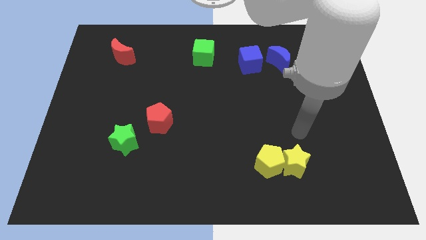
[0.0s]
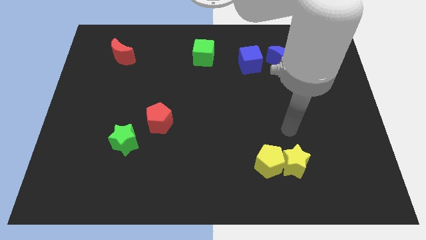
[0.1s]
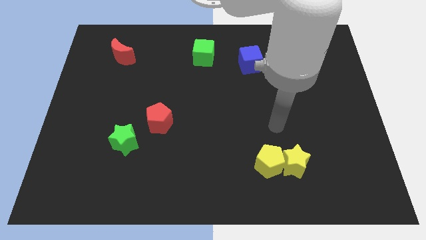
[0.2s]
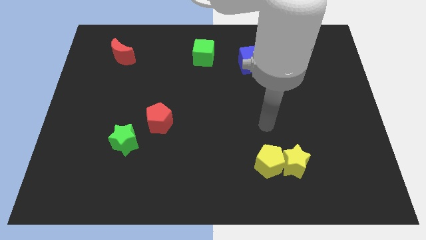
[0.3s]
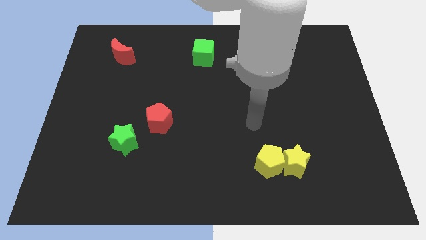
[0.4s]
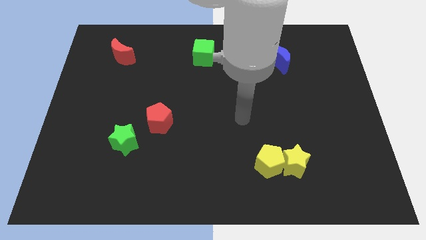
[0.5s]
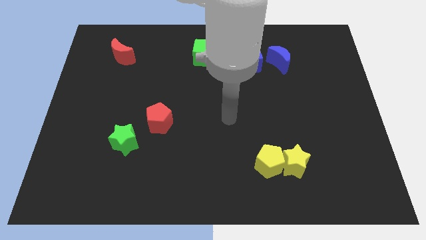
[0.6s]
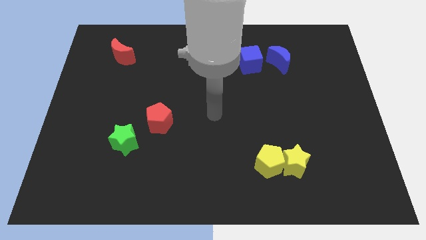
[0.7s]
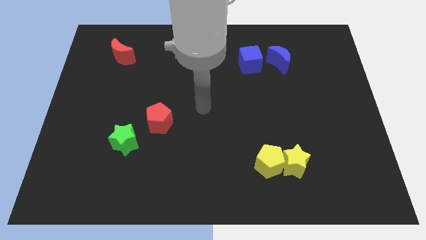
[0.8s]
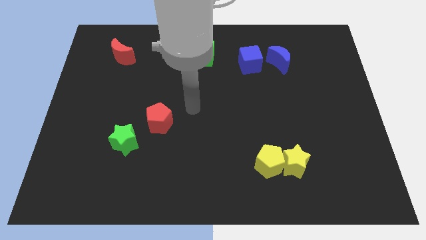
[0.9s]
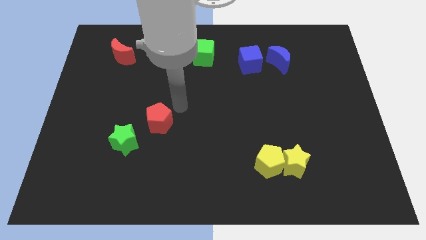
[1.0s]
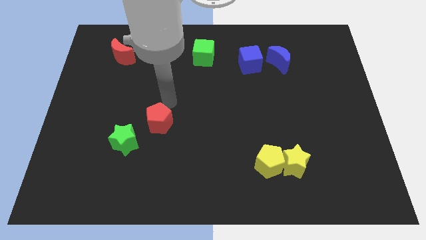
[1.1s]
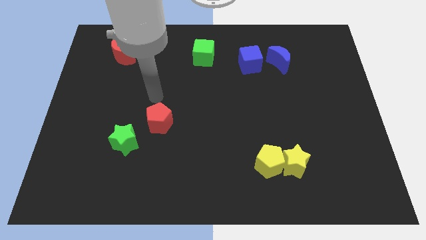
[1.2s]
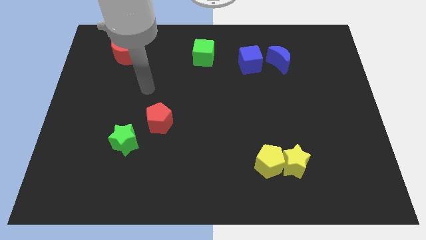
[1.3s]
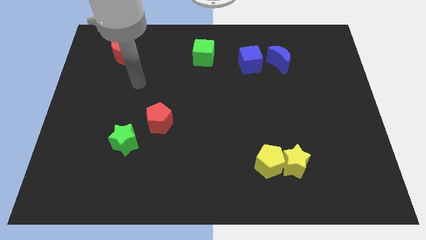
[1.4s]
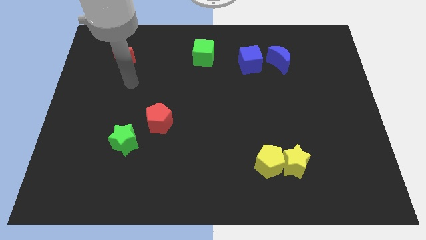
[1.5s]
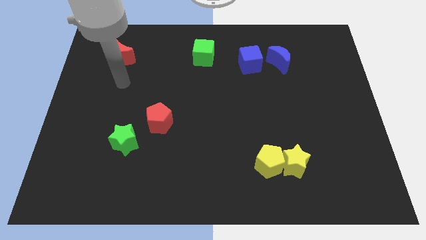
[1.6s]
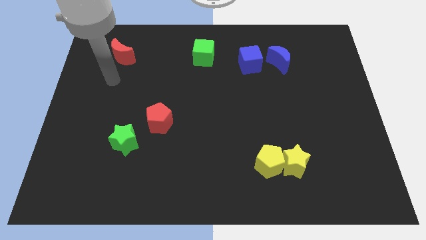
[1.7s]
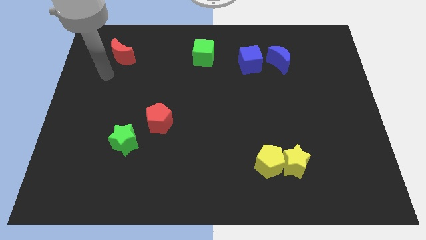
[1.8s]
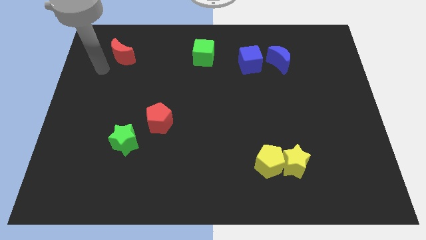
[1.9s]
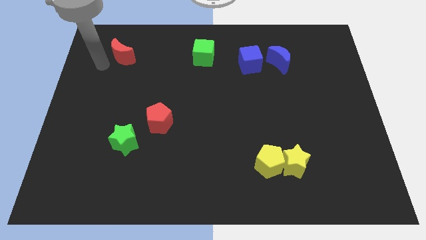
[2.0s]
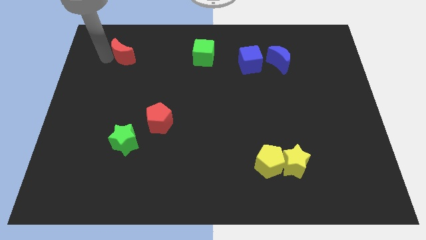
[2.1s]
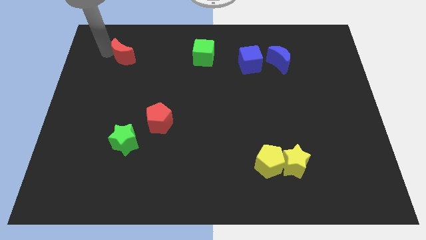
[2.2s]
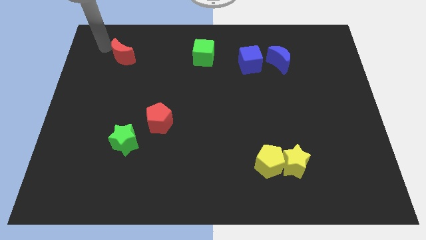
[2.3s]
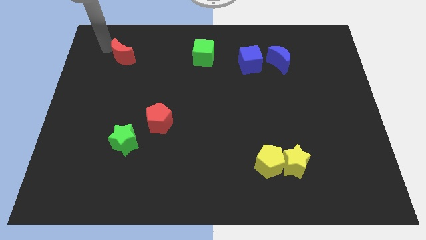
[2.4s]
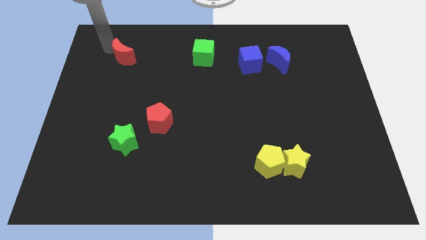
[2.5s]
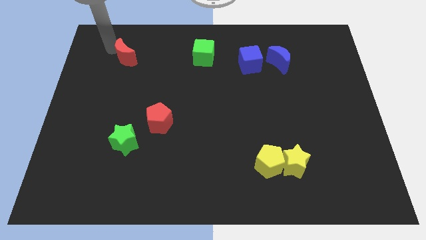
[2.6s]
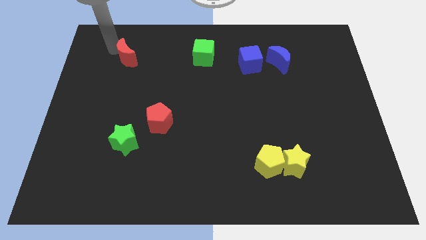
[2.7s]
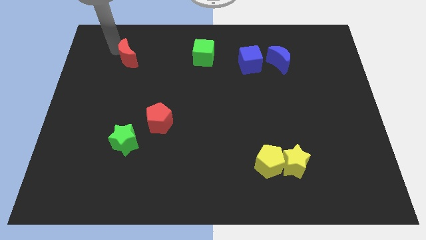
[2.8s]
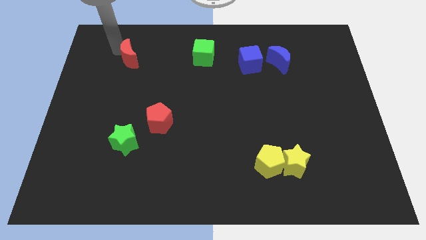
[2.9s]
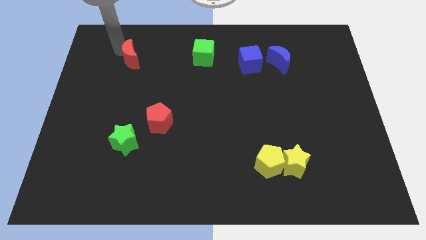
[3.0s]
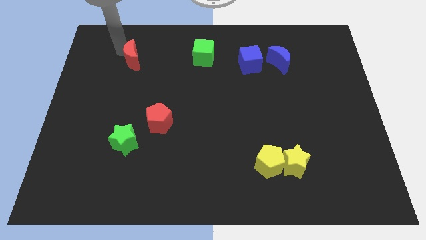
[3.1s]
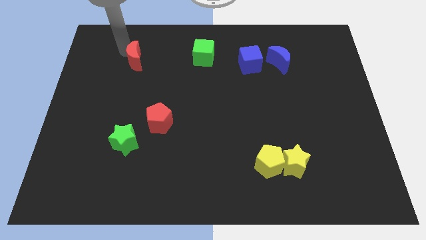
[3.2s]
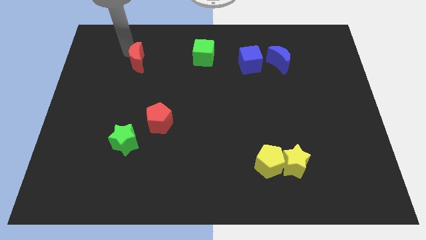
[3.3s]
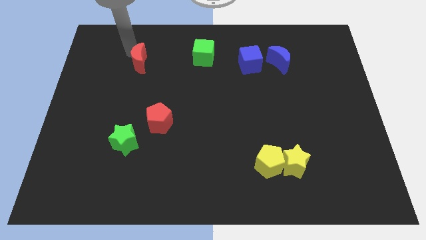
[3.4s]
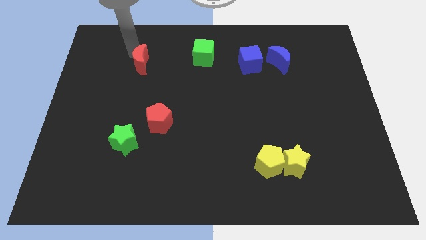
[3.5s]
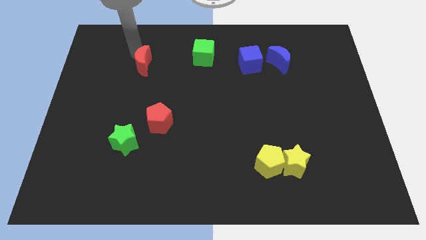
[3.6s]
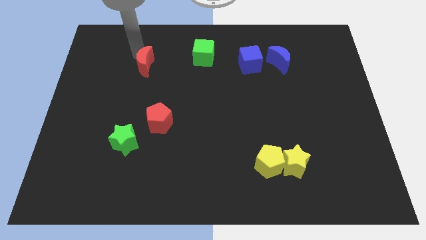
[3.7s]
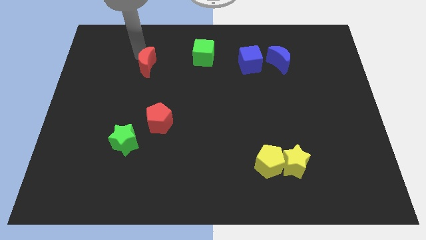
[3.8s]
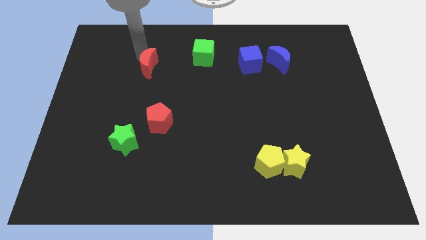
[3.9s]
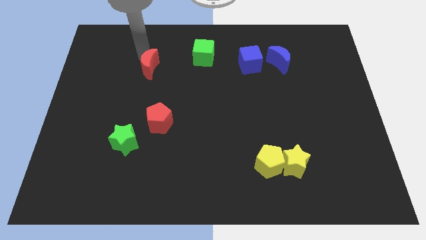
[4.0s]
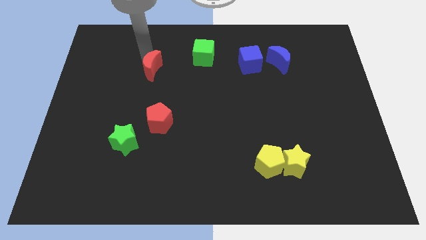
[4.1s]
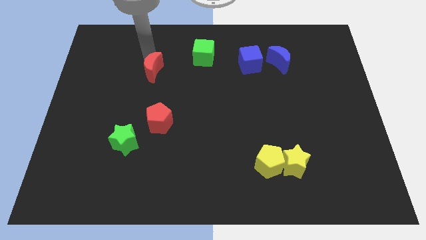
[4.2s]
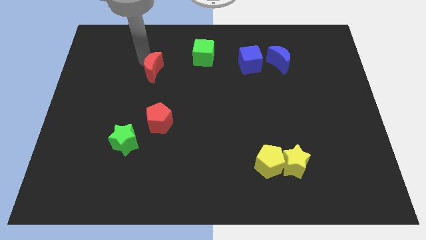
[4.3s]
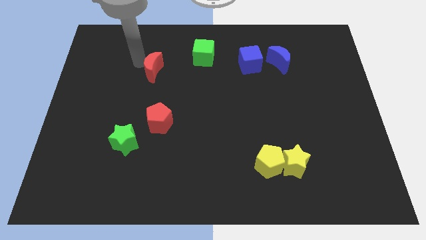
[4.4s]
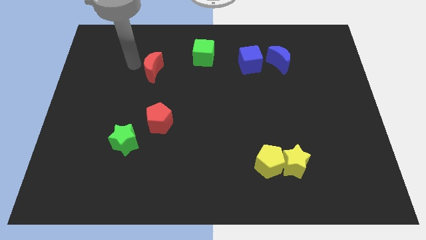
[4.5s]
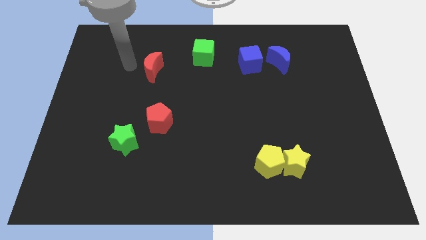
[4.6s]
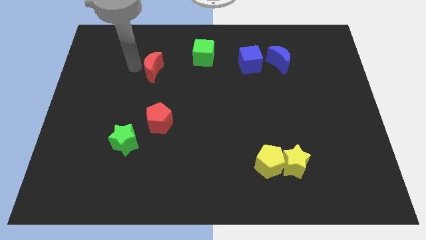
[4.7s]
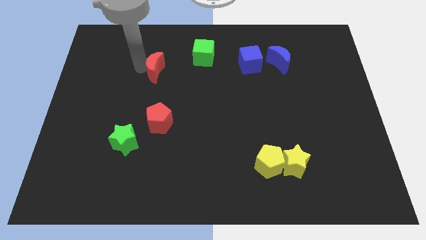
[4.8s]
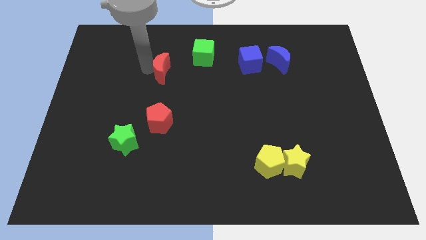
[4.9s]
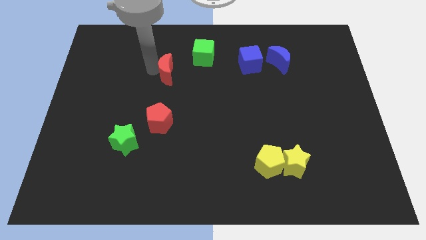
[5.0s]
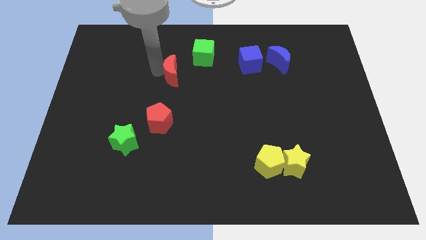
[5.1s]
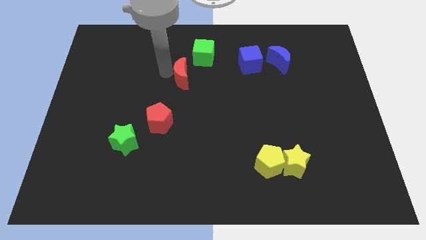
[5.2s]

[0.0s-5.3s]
push the red moon to the center of the board

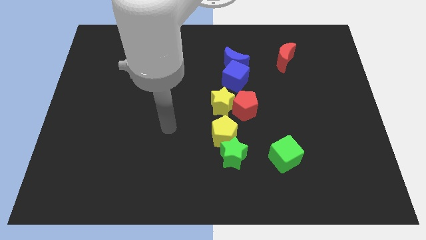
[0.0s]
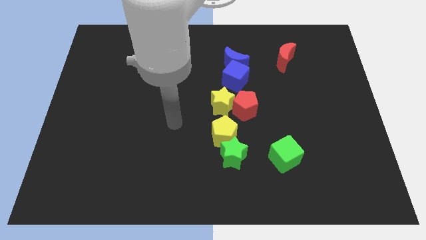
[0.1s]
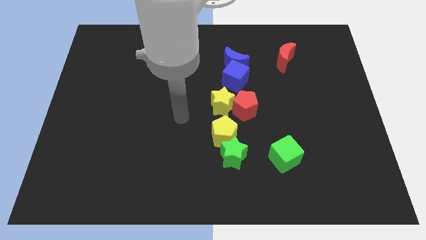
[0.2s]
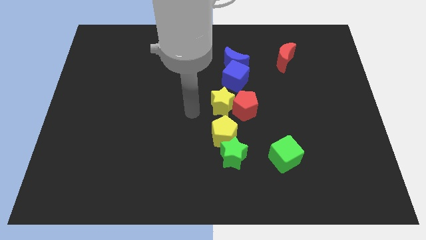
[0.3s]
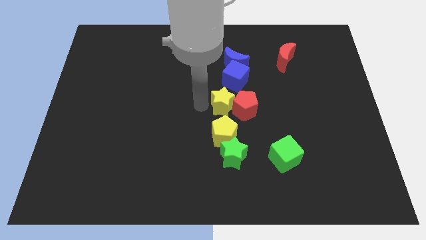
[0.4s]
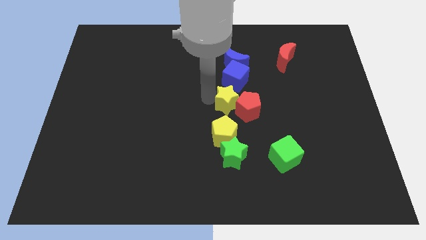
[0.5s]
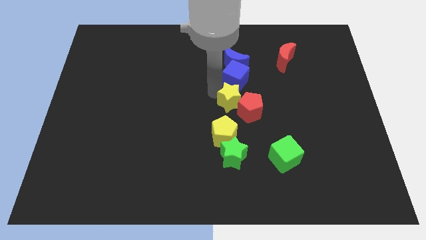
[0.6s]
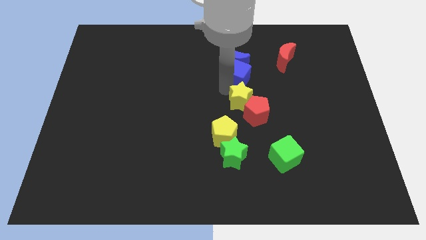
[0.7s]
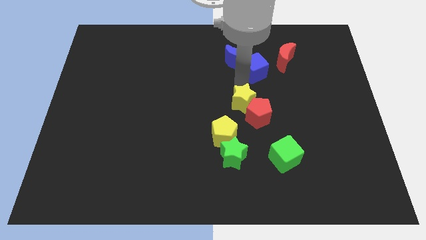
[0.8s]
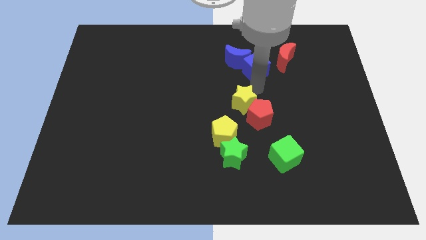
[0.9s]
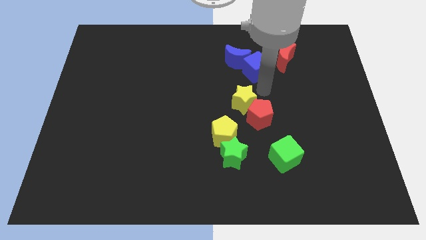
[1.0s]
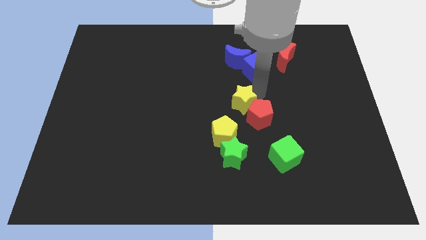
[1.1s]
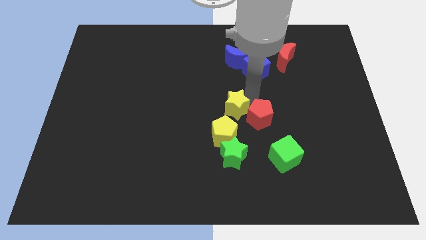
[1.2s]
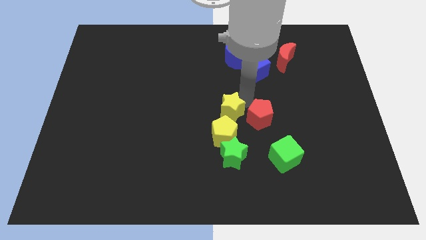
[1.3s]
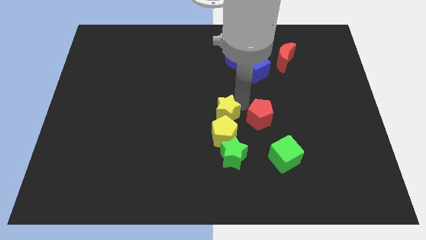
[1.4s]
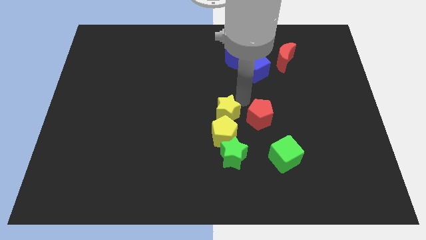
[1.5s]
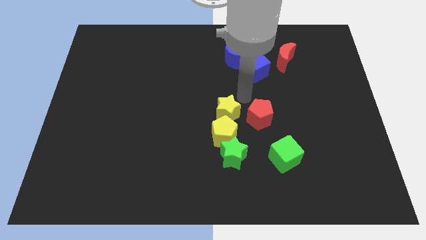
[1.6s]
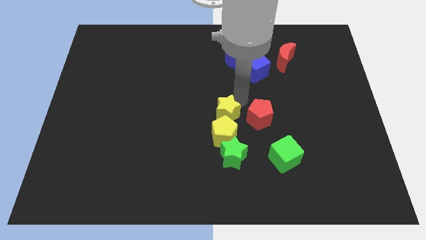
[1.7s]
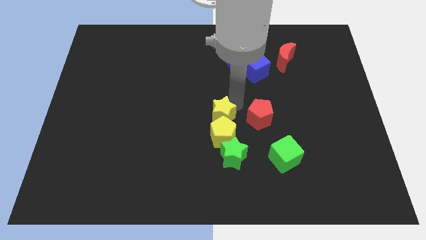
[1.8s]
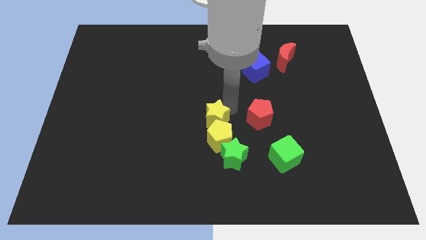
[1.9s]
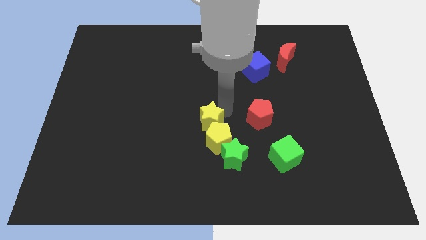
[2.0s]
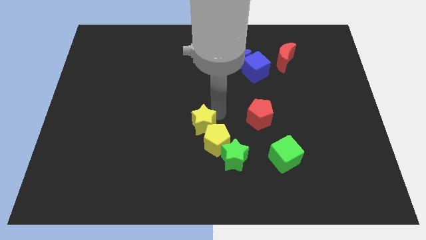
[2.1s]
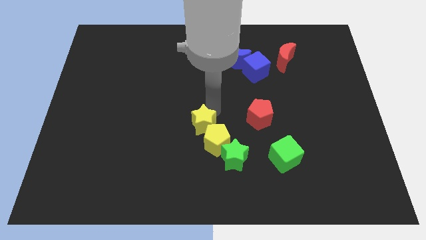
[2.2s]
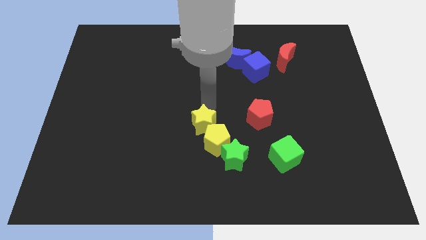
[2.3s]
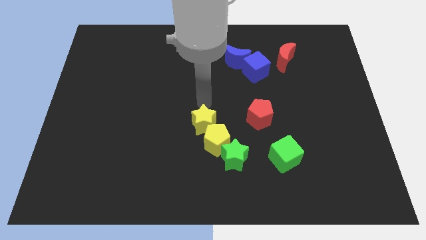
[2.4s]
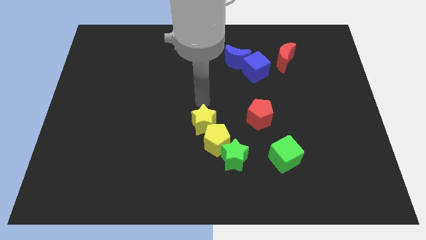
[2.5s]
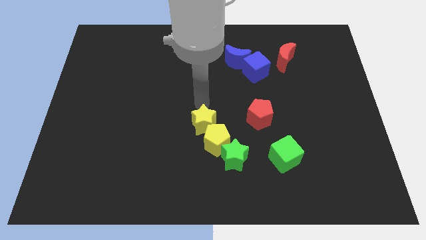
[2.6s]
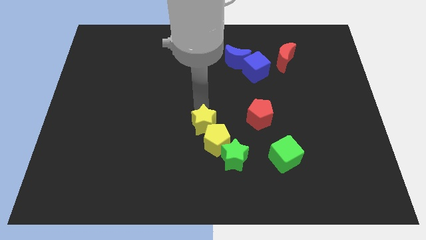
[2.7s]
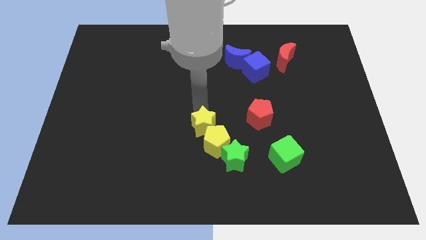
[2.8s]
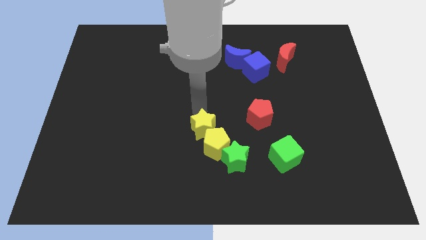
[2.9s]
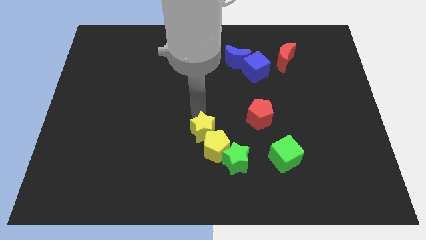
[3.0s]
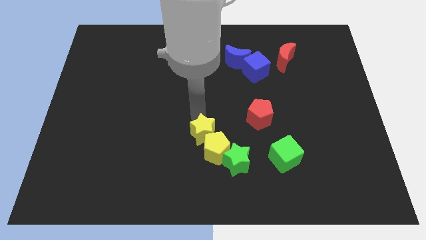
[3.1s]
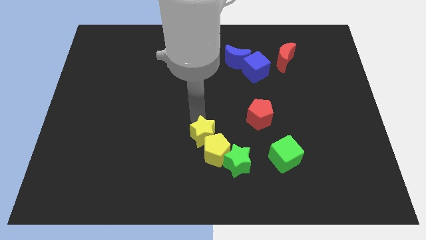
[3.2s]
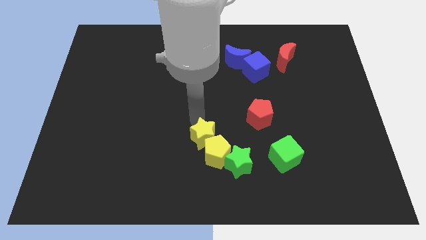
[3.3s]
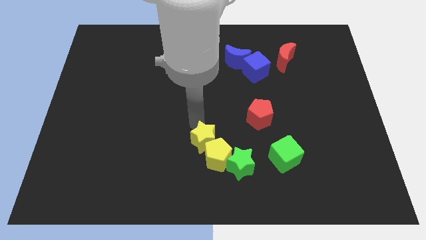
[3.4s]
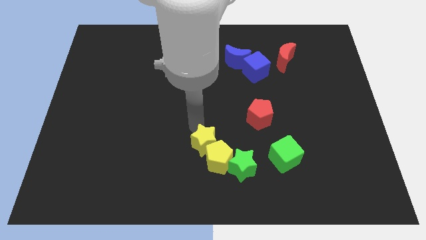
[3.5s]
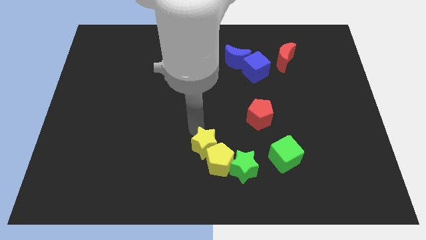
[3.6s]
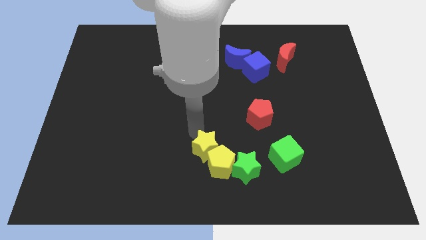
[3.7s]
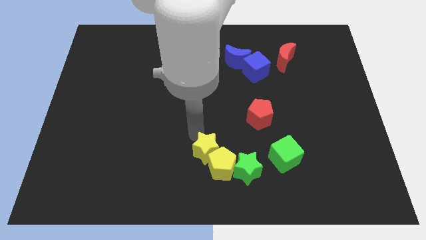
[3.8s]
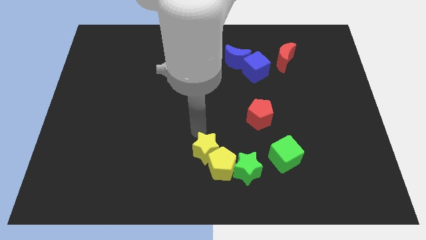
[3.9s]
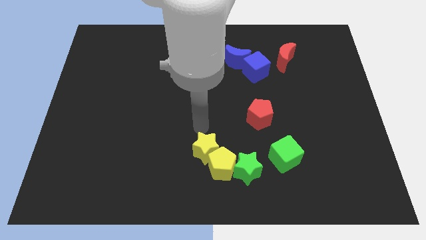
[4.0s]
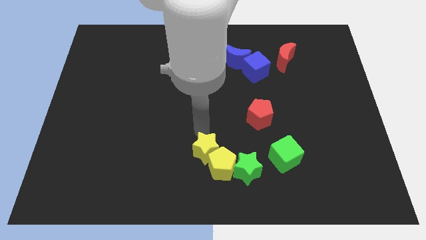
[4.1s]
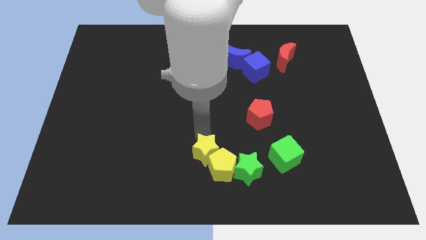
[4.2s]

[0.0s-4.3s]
slide the yellow star to the bottom
